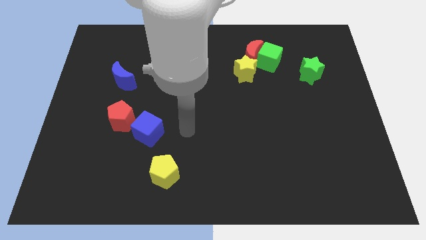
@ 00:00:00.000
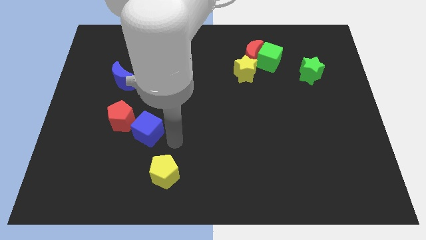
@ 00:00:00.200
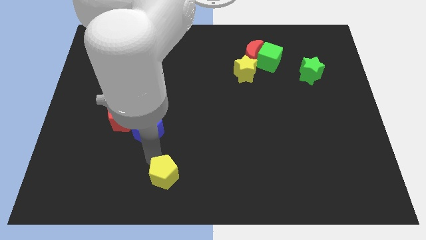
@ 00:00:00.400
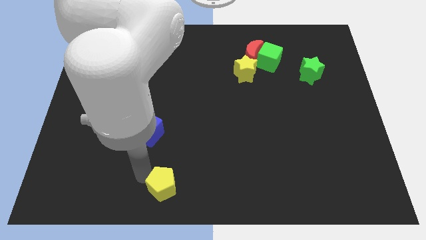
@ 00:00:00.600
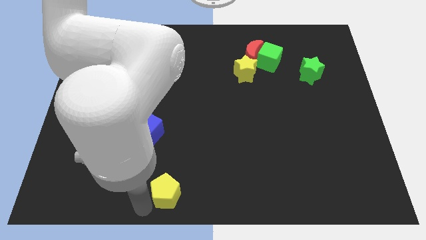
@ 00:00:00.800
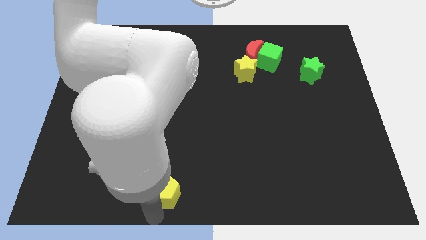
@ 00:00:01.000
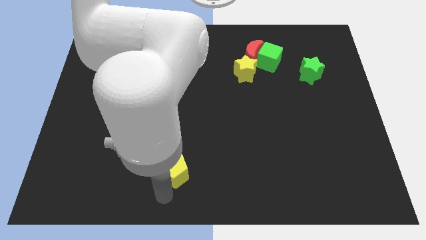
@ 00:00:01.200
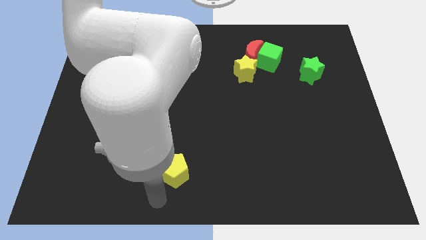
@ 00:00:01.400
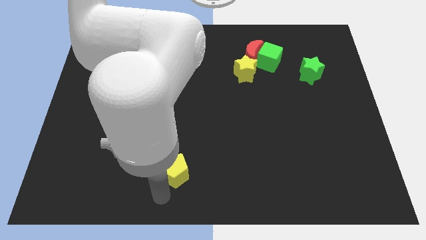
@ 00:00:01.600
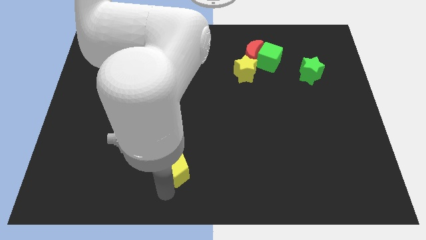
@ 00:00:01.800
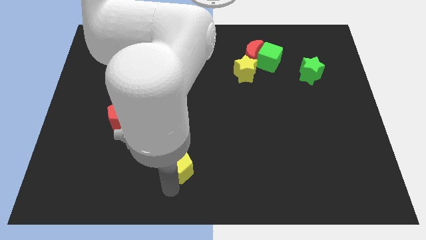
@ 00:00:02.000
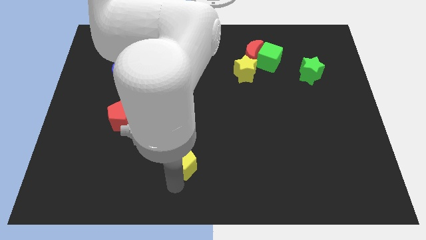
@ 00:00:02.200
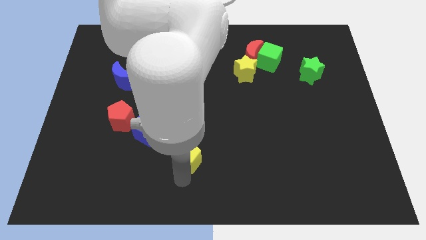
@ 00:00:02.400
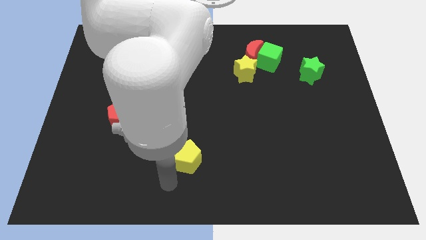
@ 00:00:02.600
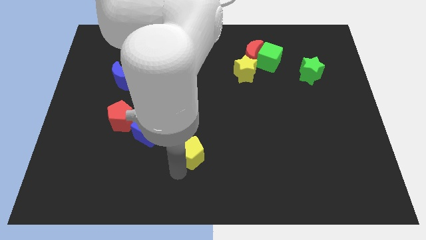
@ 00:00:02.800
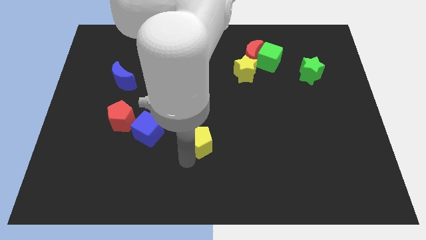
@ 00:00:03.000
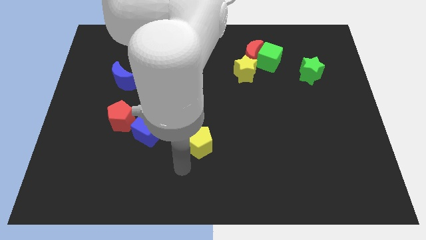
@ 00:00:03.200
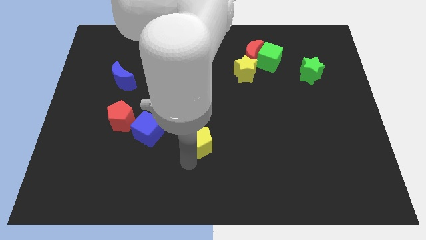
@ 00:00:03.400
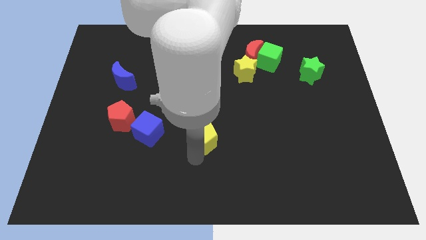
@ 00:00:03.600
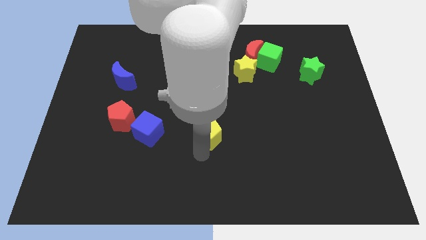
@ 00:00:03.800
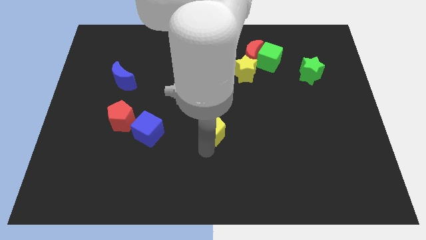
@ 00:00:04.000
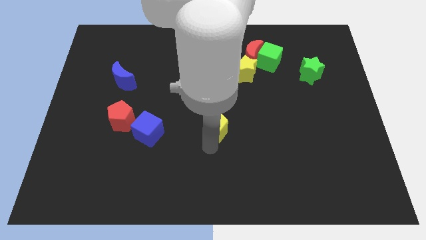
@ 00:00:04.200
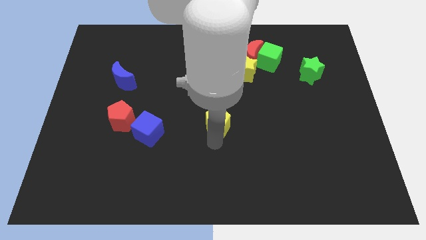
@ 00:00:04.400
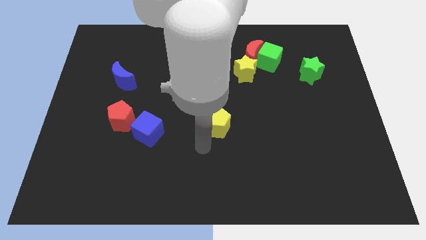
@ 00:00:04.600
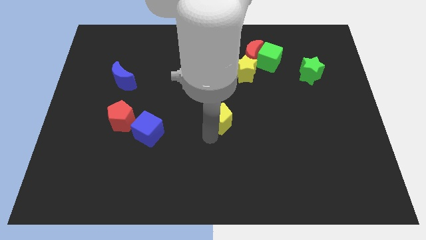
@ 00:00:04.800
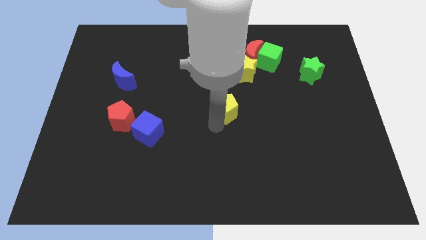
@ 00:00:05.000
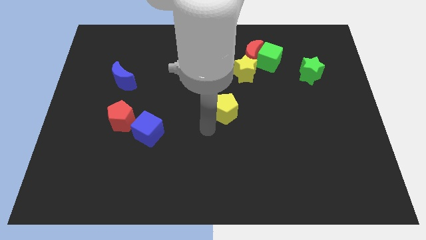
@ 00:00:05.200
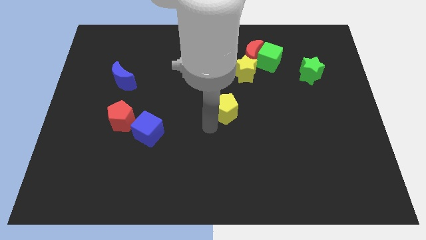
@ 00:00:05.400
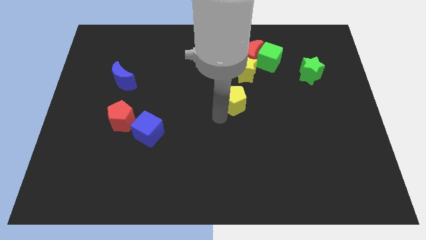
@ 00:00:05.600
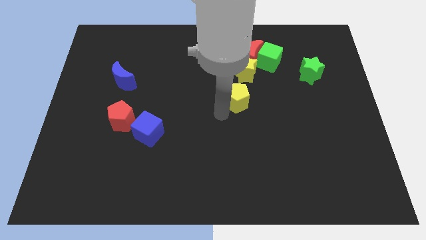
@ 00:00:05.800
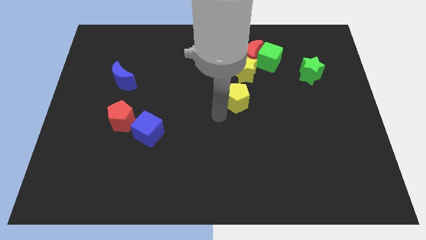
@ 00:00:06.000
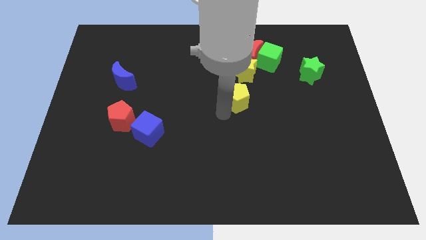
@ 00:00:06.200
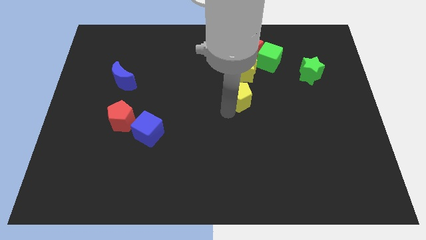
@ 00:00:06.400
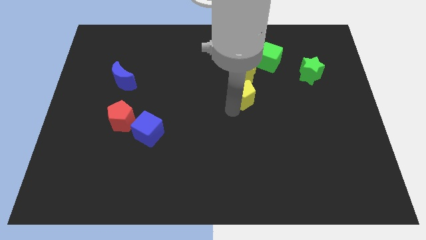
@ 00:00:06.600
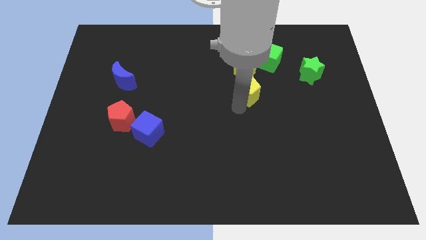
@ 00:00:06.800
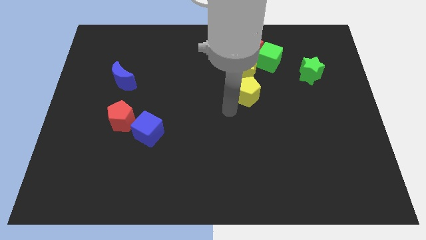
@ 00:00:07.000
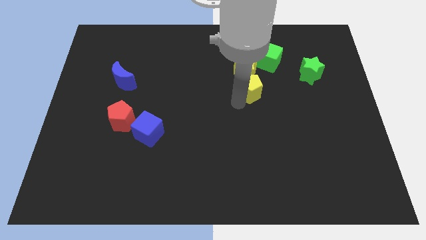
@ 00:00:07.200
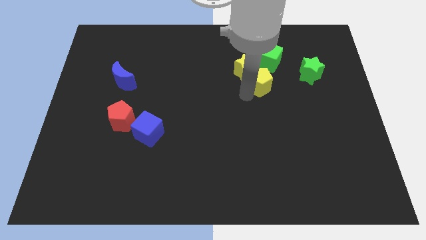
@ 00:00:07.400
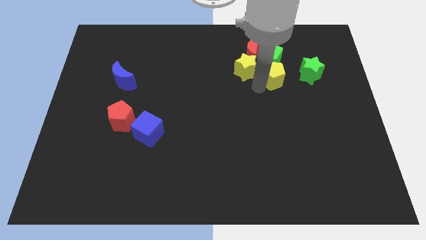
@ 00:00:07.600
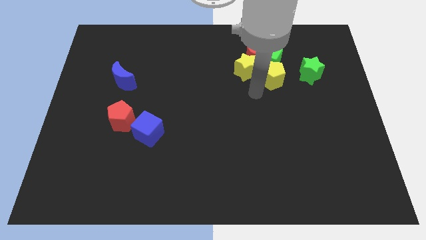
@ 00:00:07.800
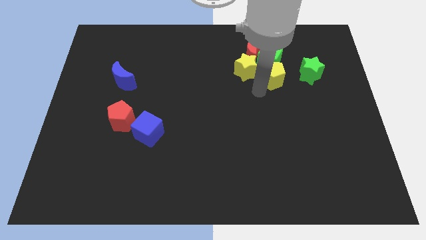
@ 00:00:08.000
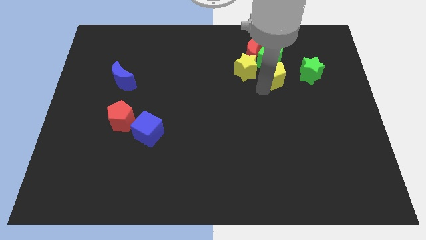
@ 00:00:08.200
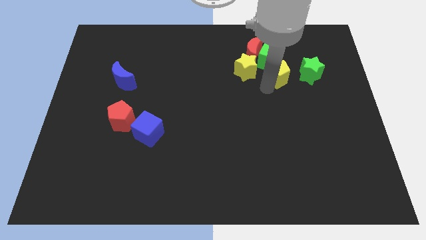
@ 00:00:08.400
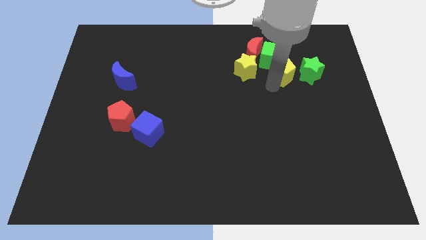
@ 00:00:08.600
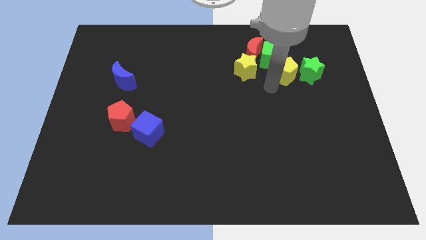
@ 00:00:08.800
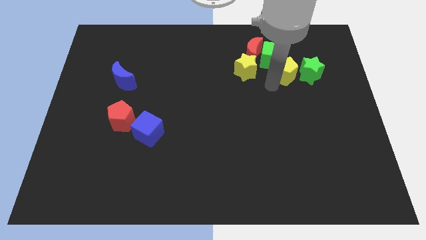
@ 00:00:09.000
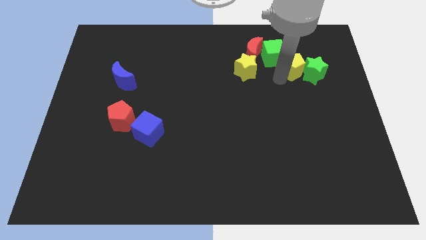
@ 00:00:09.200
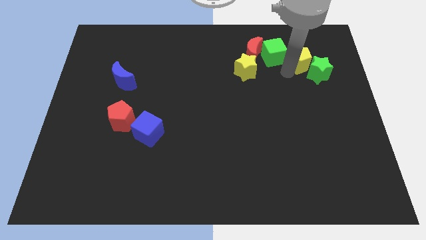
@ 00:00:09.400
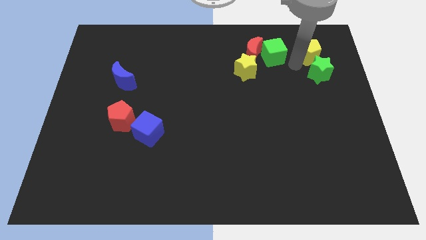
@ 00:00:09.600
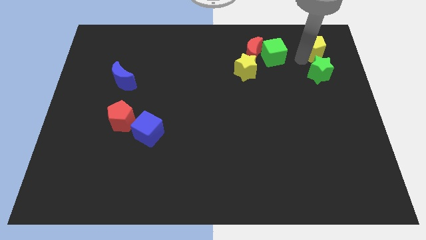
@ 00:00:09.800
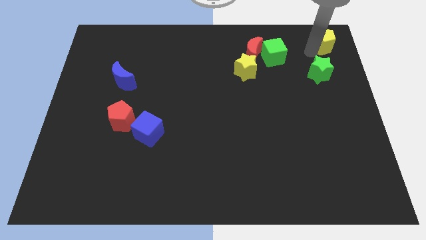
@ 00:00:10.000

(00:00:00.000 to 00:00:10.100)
move the yellow pentagon to the upper right corner

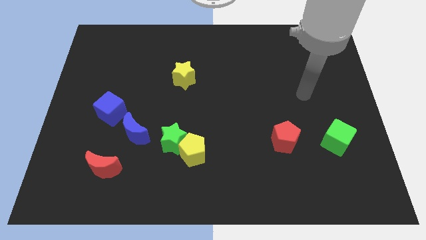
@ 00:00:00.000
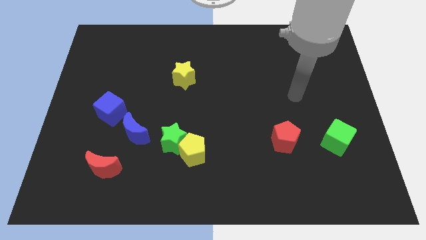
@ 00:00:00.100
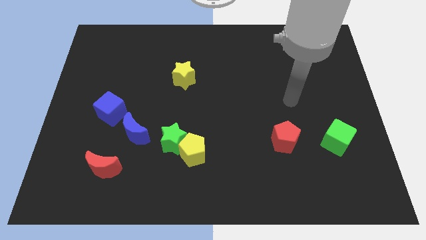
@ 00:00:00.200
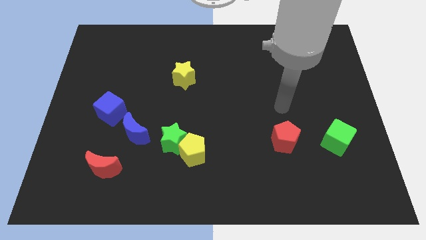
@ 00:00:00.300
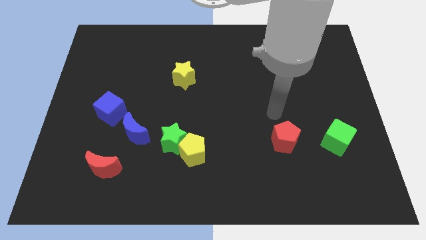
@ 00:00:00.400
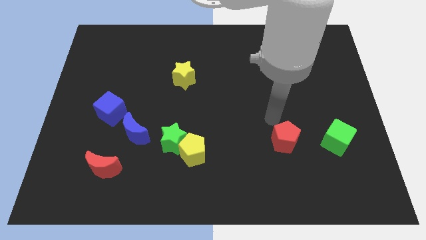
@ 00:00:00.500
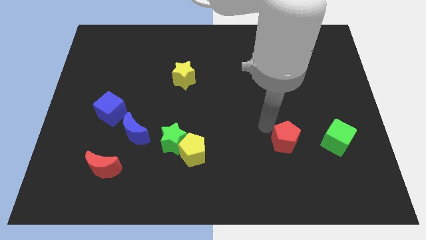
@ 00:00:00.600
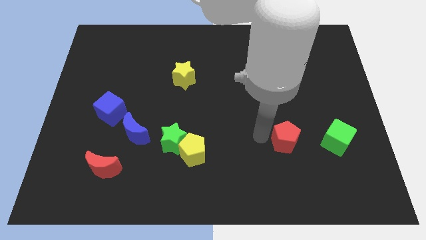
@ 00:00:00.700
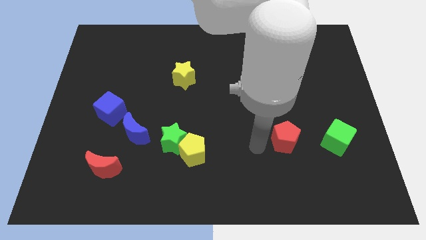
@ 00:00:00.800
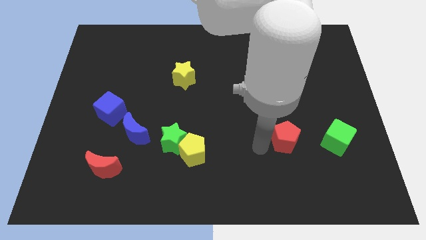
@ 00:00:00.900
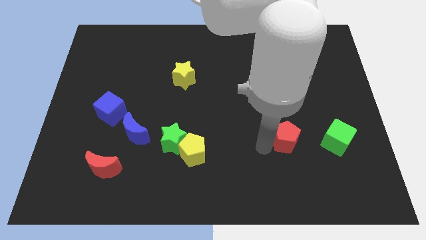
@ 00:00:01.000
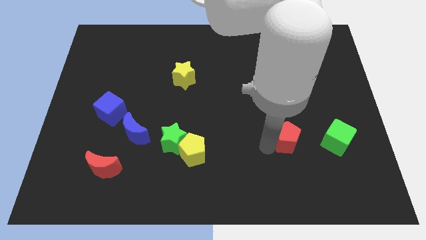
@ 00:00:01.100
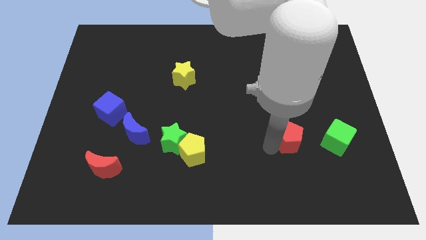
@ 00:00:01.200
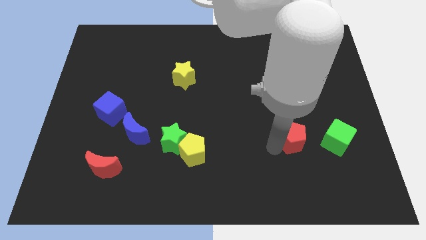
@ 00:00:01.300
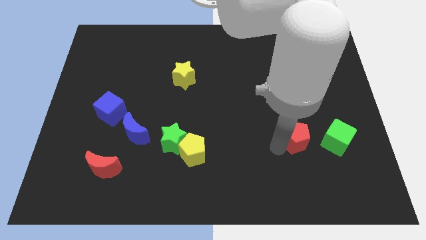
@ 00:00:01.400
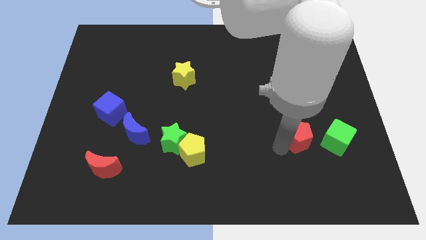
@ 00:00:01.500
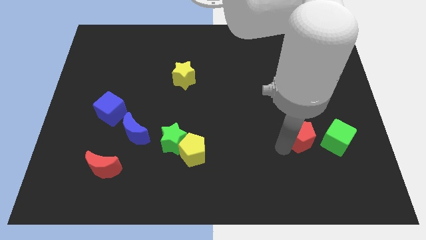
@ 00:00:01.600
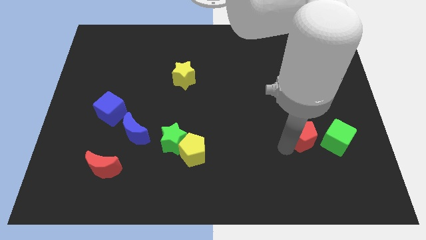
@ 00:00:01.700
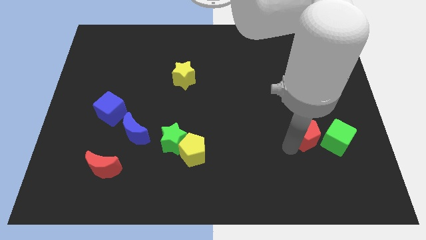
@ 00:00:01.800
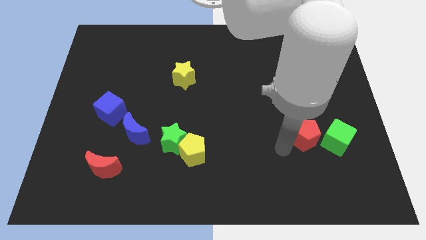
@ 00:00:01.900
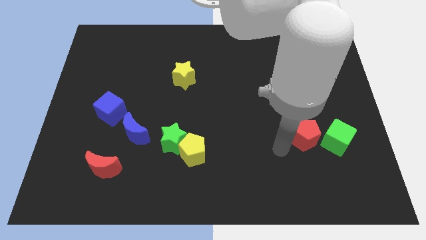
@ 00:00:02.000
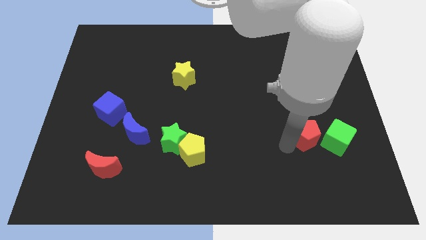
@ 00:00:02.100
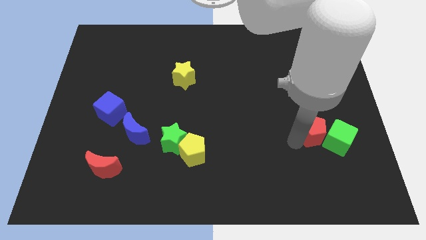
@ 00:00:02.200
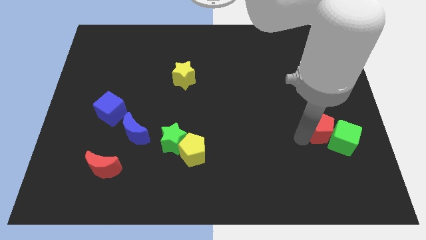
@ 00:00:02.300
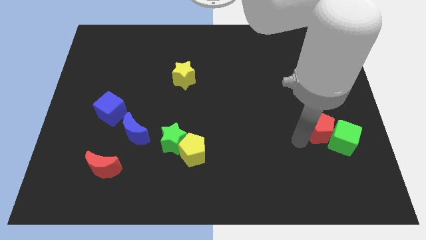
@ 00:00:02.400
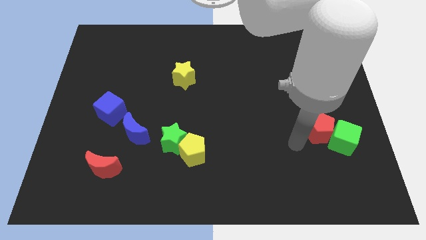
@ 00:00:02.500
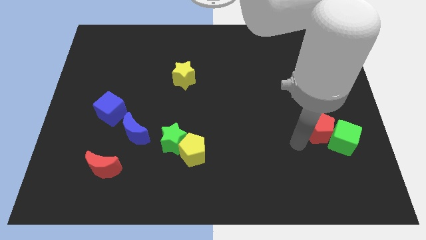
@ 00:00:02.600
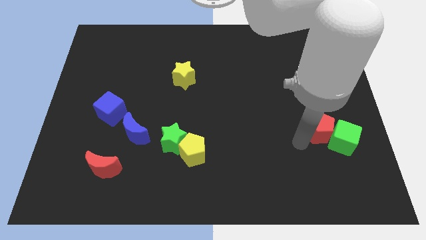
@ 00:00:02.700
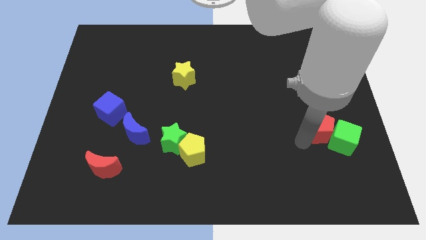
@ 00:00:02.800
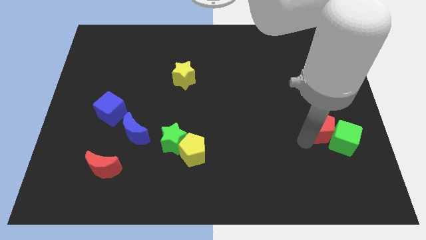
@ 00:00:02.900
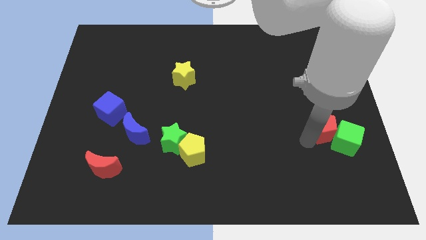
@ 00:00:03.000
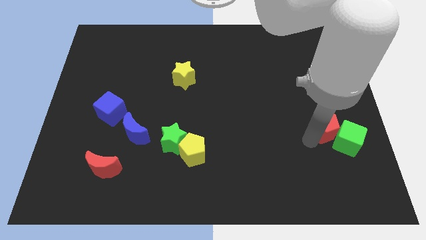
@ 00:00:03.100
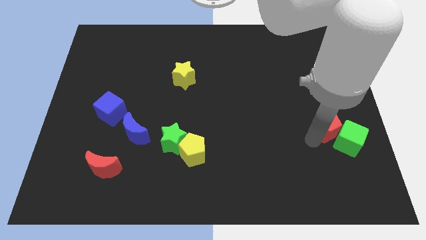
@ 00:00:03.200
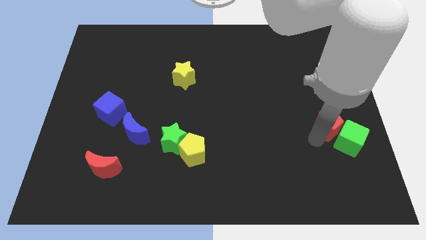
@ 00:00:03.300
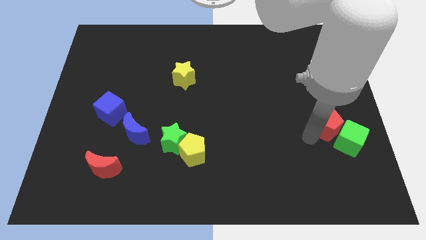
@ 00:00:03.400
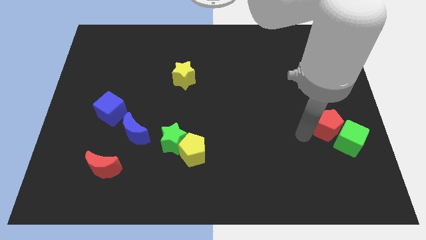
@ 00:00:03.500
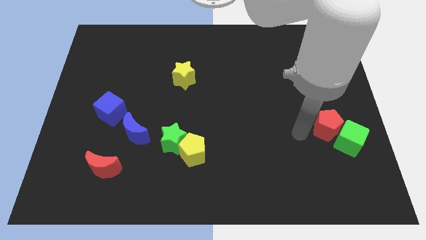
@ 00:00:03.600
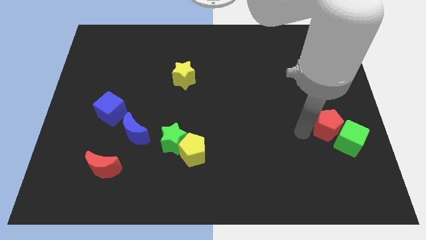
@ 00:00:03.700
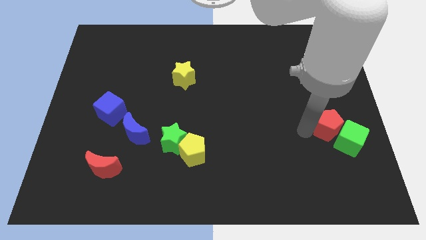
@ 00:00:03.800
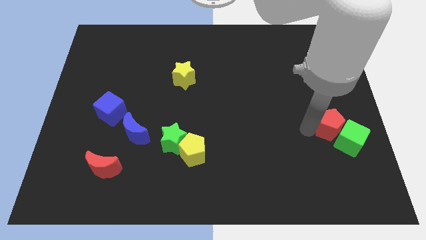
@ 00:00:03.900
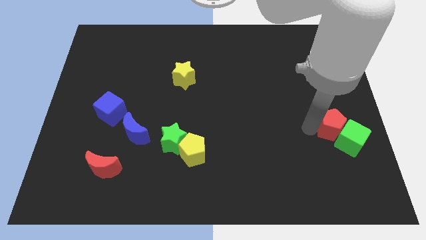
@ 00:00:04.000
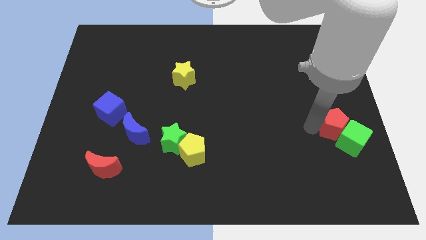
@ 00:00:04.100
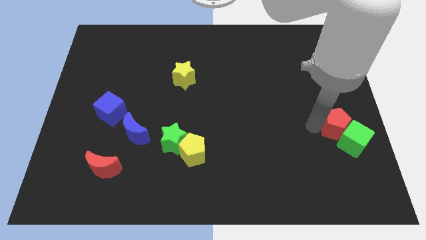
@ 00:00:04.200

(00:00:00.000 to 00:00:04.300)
slide the red pentagon to the center right
